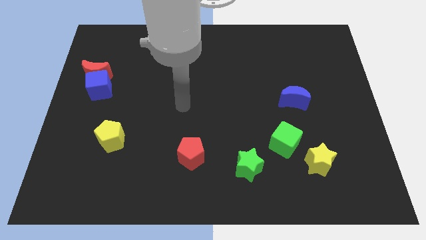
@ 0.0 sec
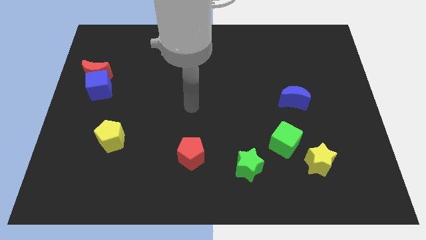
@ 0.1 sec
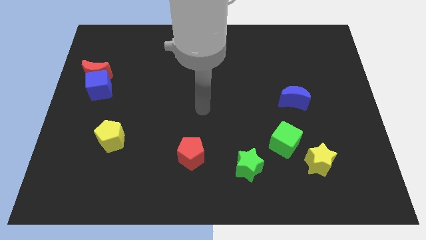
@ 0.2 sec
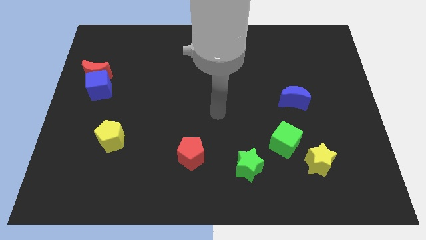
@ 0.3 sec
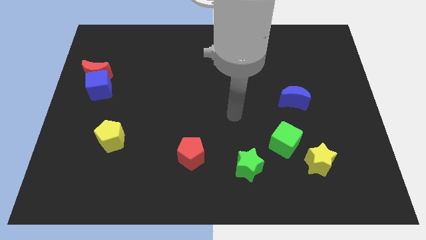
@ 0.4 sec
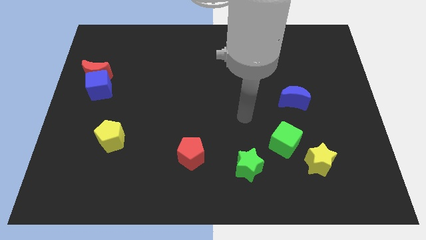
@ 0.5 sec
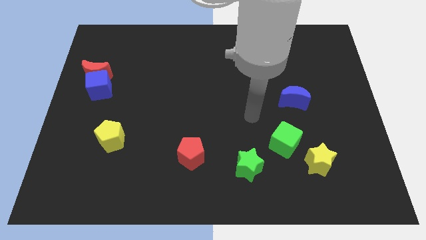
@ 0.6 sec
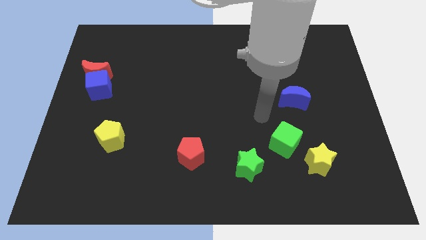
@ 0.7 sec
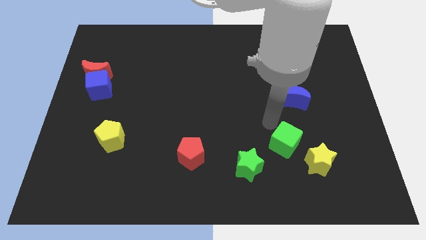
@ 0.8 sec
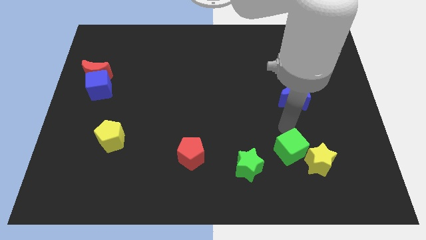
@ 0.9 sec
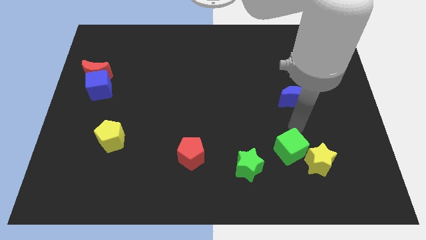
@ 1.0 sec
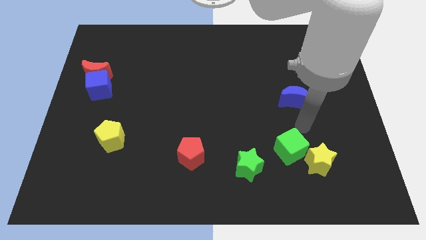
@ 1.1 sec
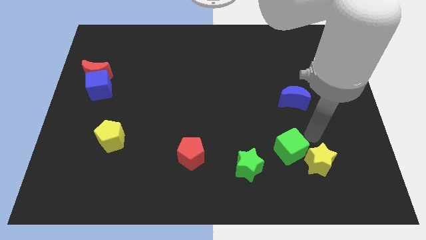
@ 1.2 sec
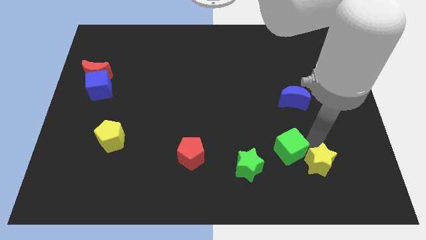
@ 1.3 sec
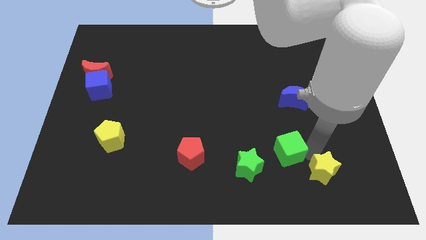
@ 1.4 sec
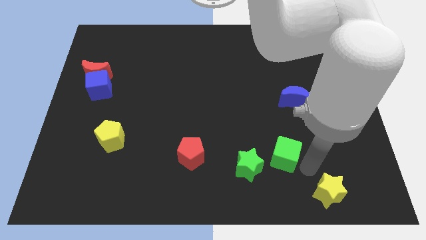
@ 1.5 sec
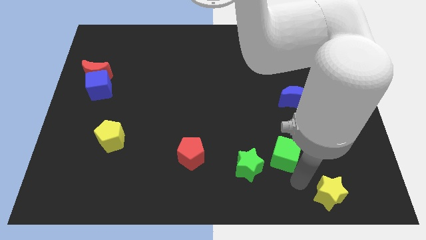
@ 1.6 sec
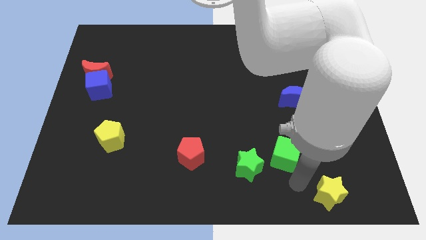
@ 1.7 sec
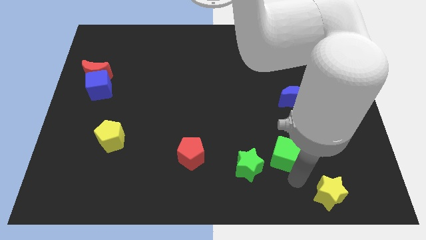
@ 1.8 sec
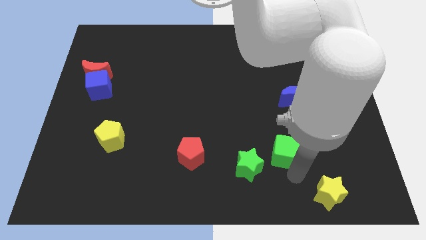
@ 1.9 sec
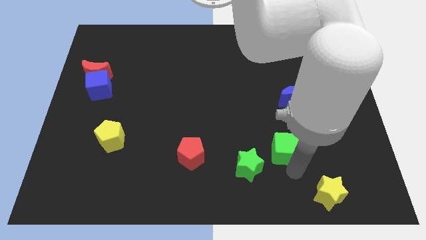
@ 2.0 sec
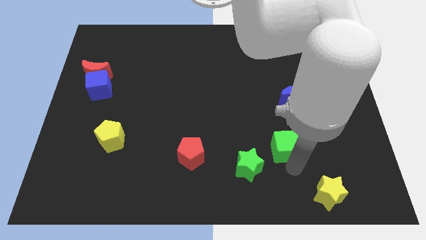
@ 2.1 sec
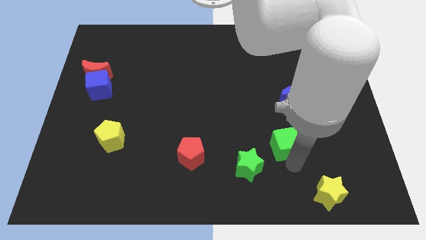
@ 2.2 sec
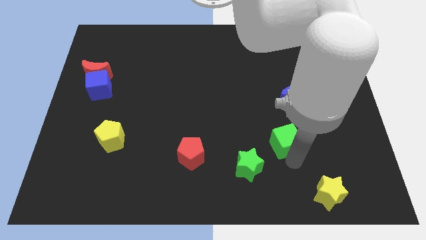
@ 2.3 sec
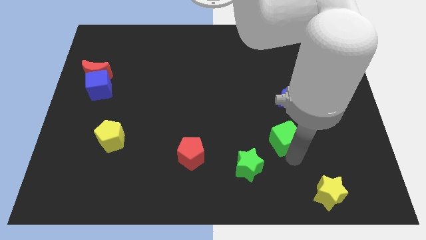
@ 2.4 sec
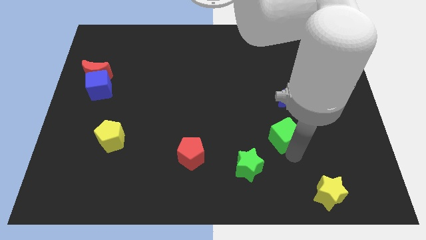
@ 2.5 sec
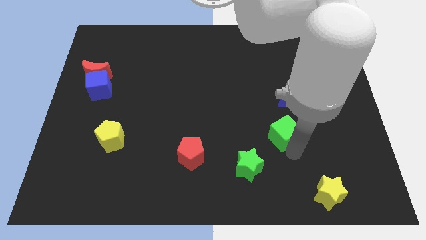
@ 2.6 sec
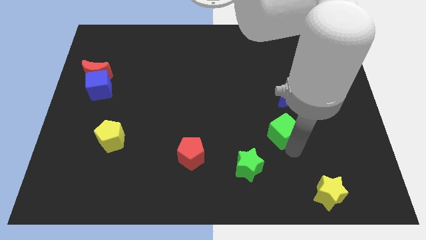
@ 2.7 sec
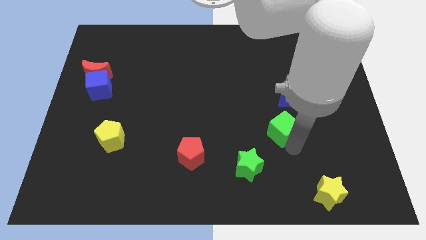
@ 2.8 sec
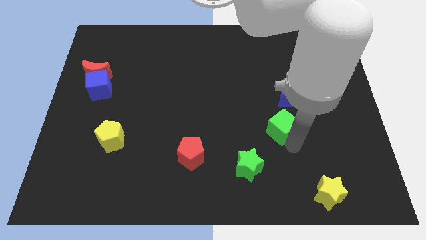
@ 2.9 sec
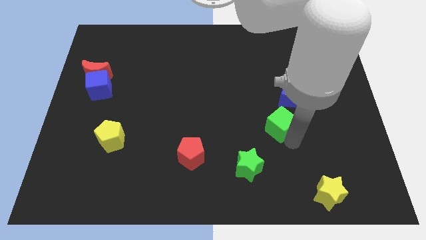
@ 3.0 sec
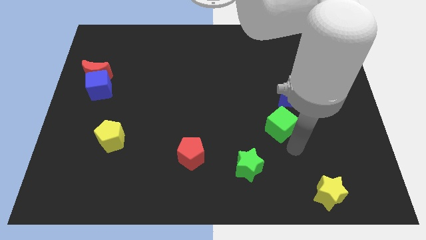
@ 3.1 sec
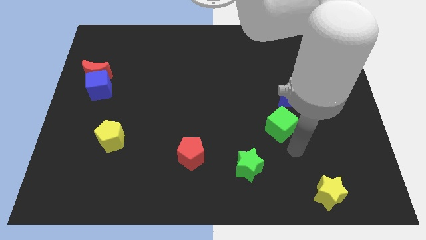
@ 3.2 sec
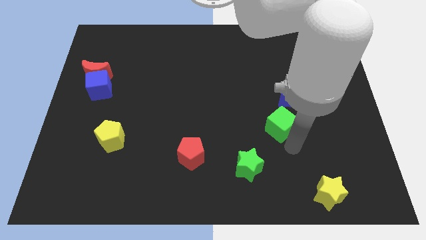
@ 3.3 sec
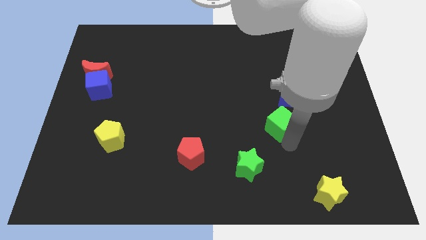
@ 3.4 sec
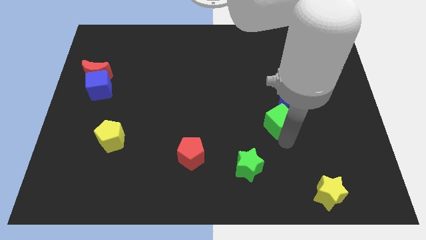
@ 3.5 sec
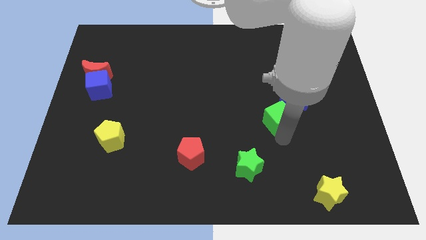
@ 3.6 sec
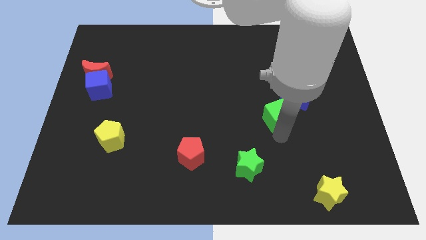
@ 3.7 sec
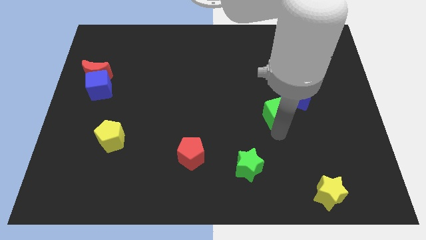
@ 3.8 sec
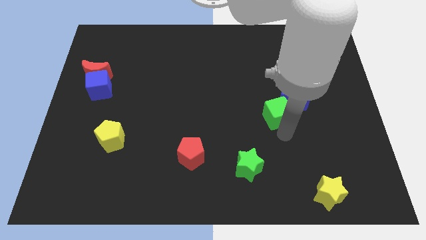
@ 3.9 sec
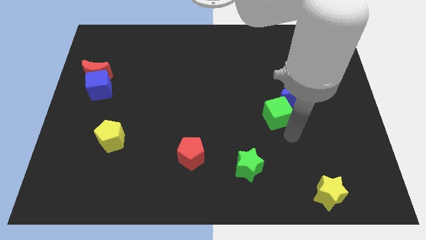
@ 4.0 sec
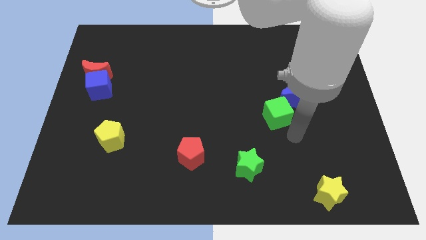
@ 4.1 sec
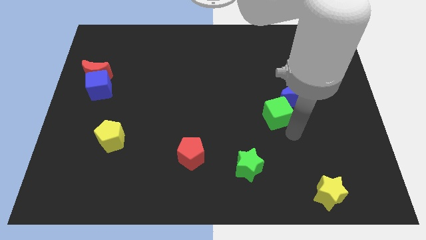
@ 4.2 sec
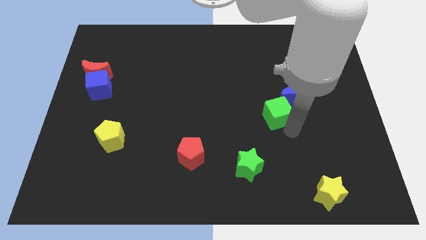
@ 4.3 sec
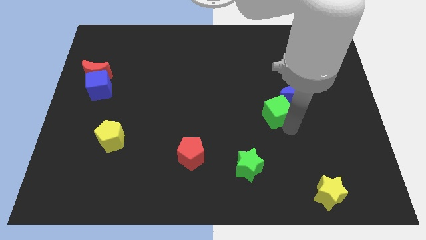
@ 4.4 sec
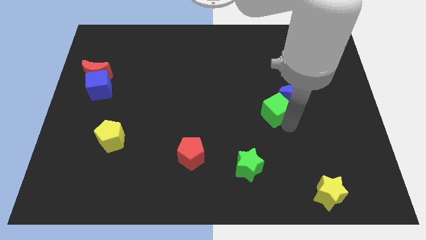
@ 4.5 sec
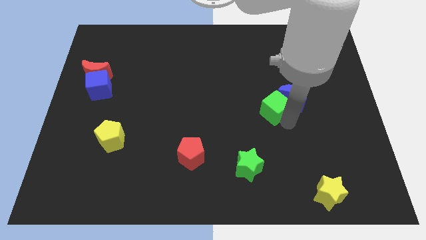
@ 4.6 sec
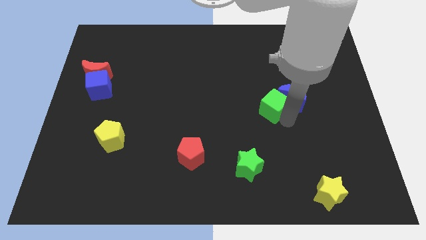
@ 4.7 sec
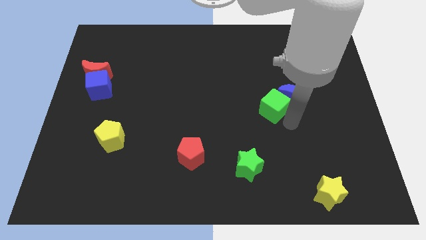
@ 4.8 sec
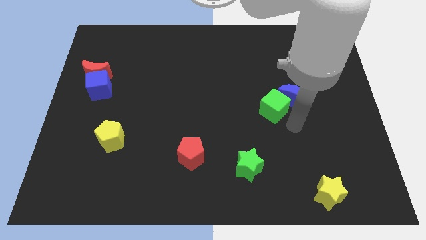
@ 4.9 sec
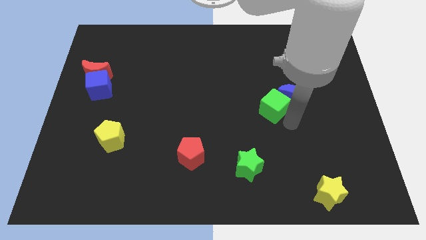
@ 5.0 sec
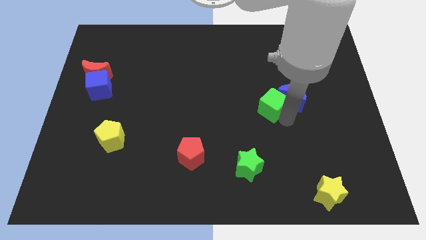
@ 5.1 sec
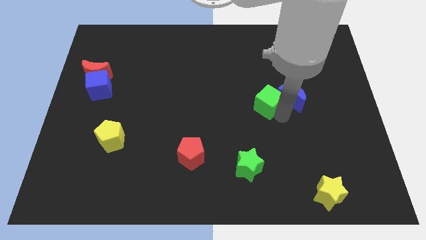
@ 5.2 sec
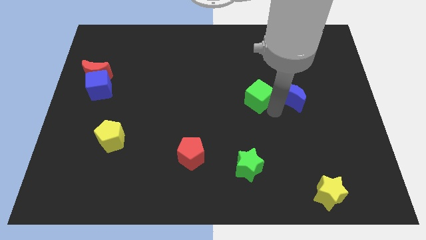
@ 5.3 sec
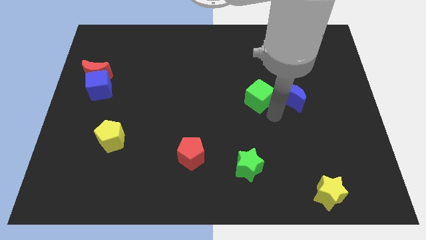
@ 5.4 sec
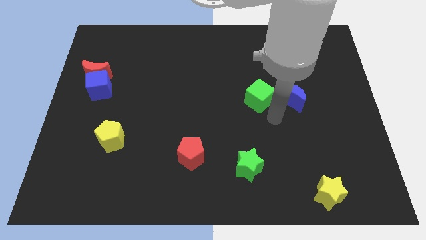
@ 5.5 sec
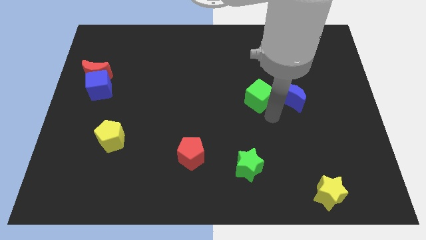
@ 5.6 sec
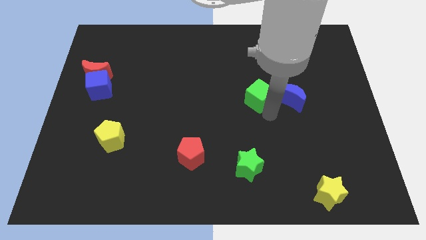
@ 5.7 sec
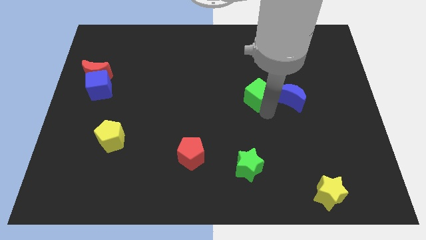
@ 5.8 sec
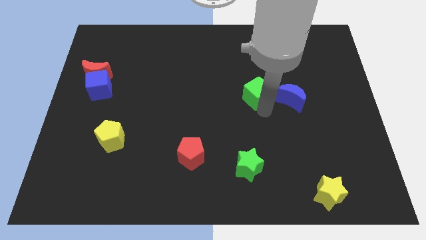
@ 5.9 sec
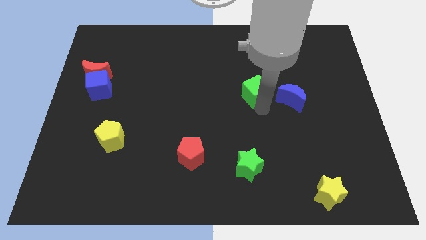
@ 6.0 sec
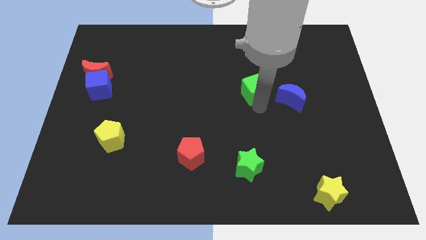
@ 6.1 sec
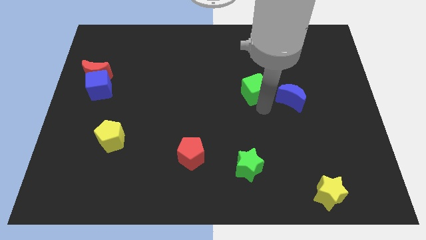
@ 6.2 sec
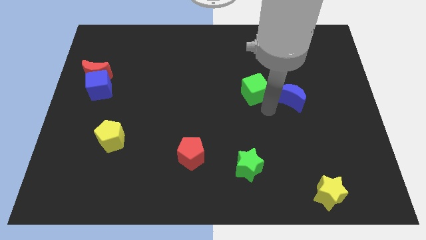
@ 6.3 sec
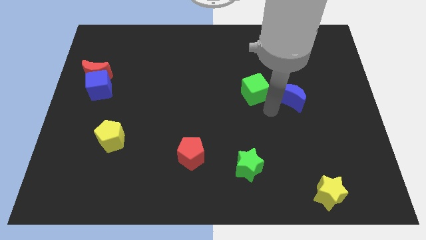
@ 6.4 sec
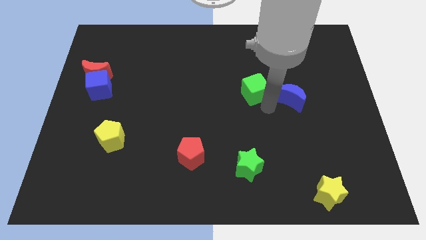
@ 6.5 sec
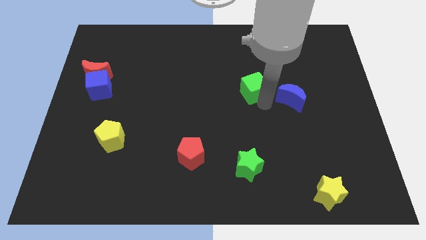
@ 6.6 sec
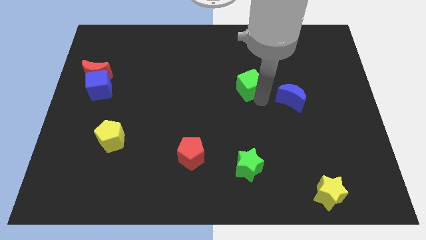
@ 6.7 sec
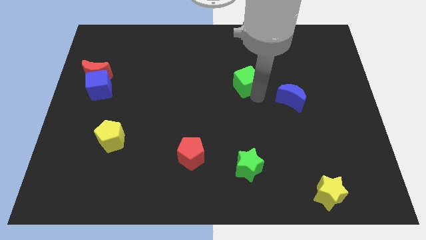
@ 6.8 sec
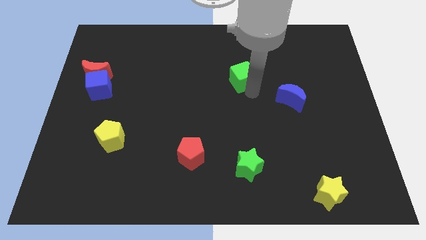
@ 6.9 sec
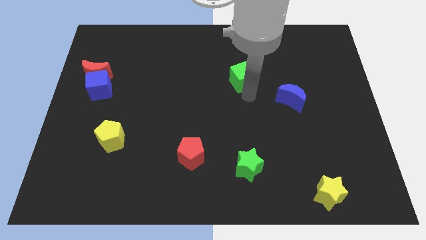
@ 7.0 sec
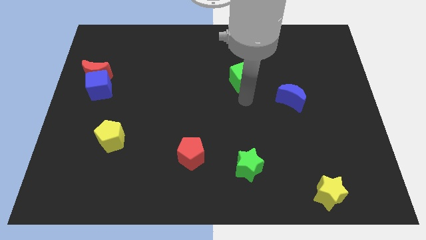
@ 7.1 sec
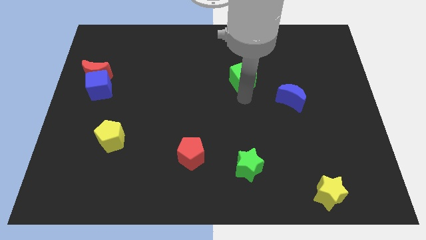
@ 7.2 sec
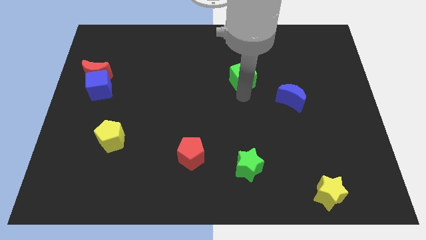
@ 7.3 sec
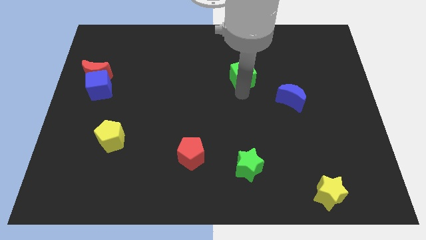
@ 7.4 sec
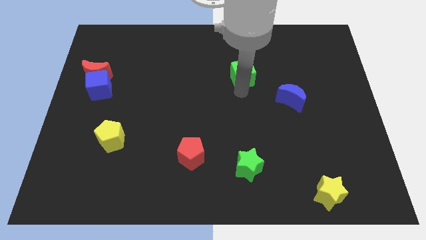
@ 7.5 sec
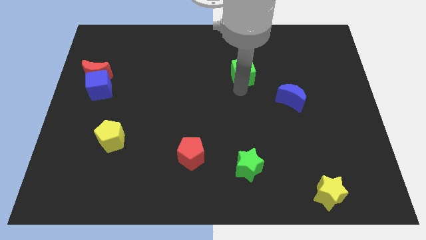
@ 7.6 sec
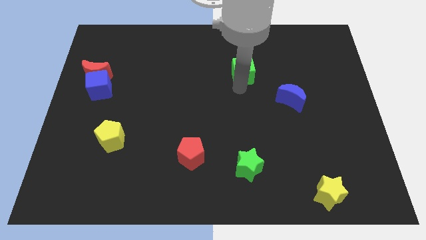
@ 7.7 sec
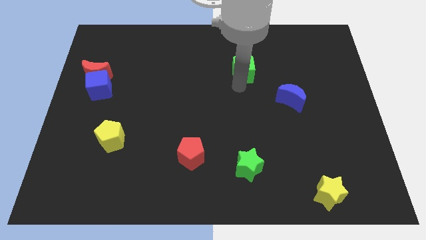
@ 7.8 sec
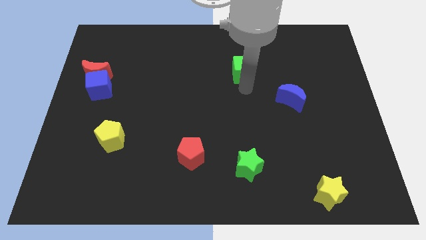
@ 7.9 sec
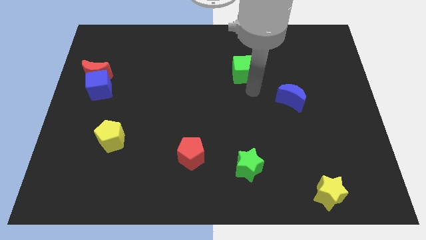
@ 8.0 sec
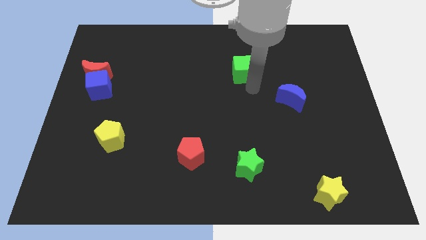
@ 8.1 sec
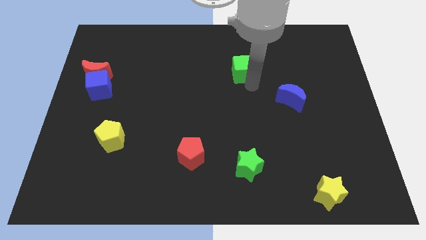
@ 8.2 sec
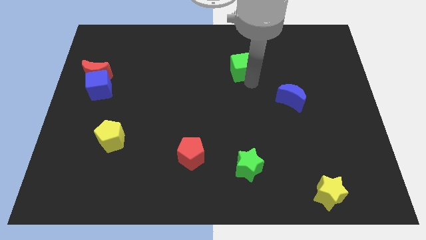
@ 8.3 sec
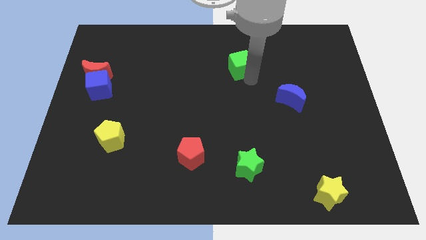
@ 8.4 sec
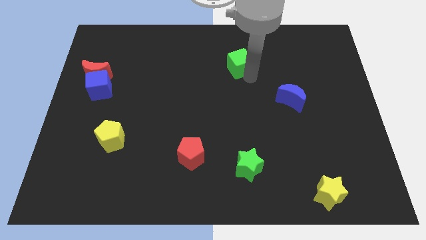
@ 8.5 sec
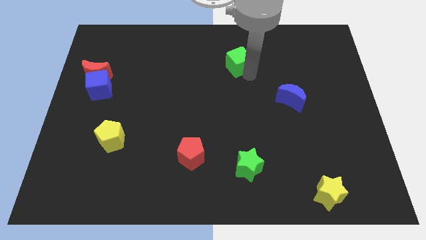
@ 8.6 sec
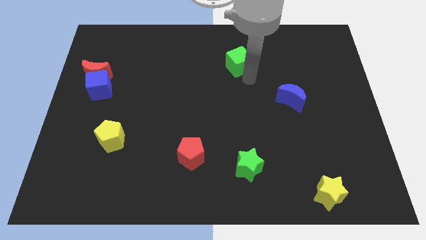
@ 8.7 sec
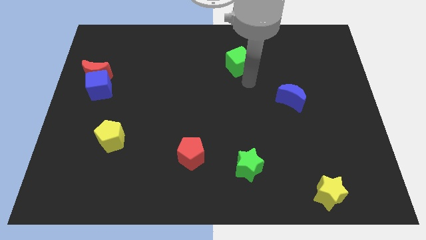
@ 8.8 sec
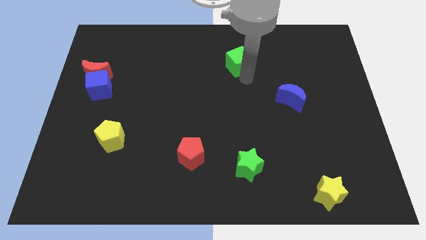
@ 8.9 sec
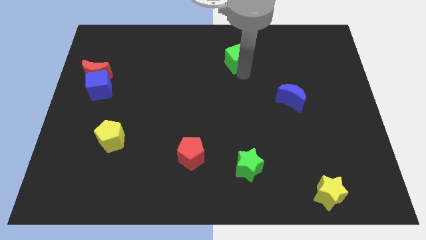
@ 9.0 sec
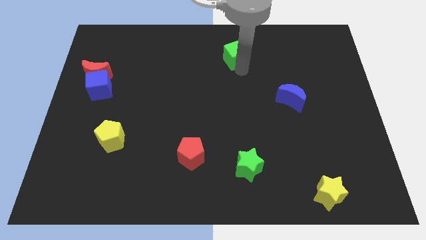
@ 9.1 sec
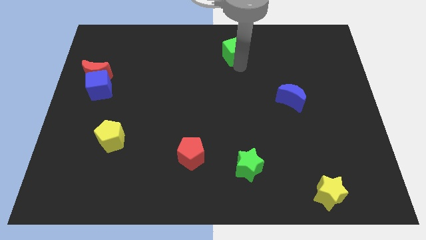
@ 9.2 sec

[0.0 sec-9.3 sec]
move the green cube to the top
